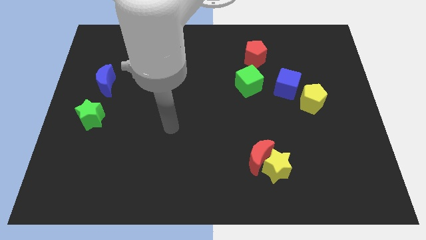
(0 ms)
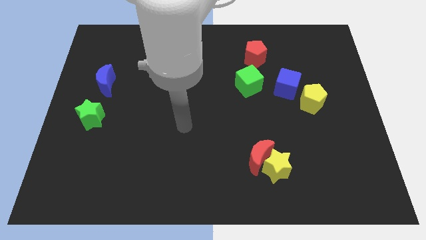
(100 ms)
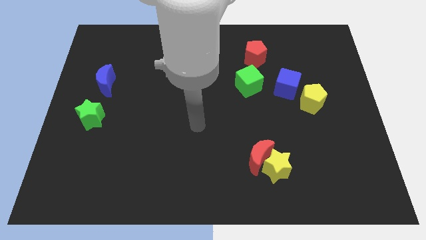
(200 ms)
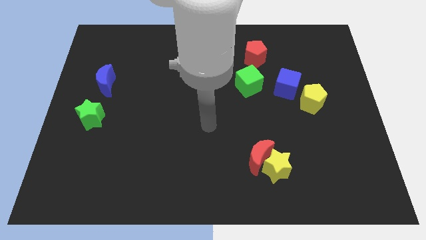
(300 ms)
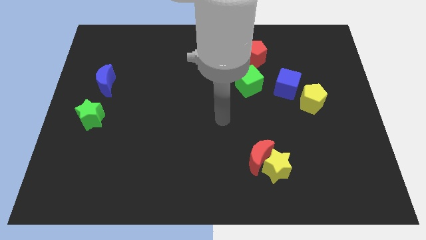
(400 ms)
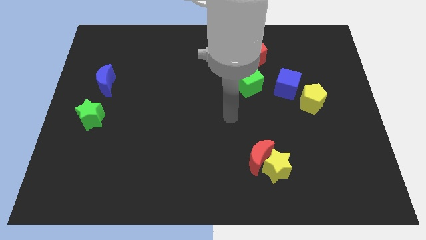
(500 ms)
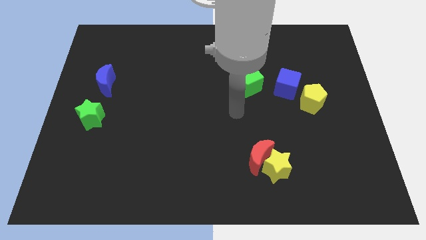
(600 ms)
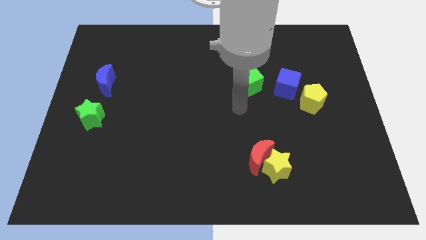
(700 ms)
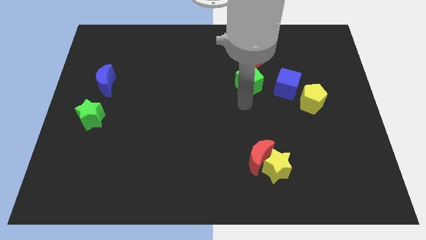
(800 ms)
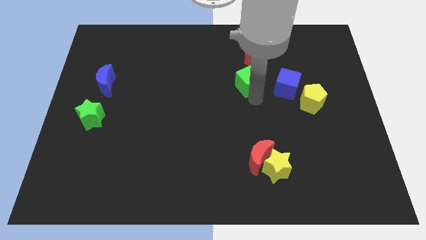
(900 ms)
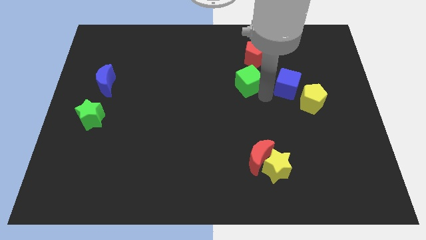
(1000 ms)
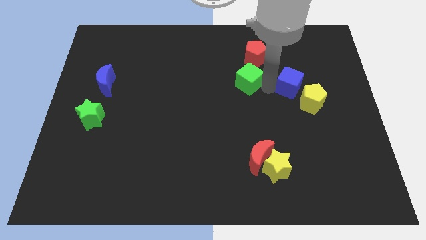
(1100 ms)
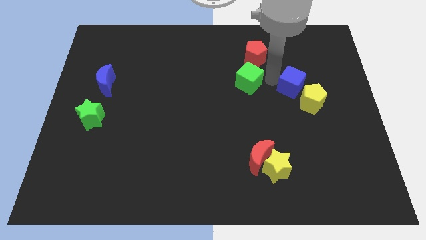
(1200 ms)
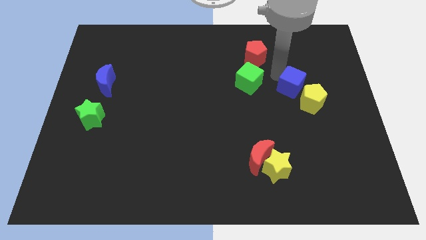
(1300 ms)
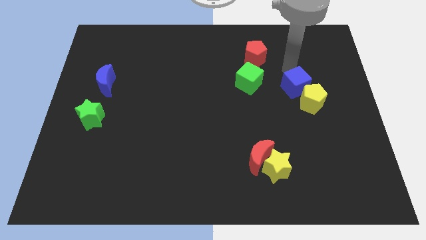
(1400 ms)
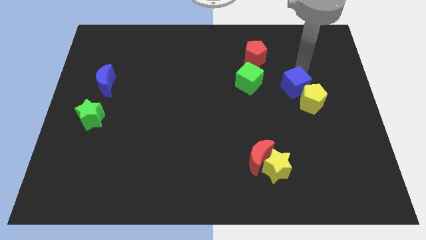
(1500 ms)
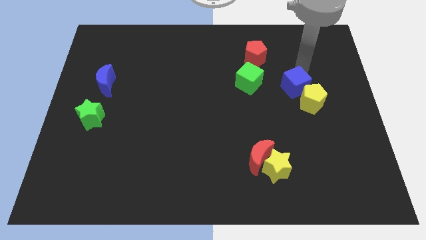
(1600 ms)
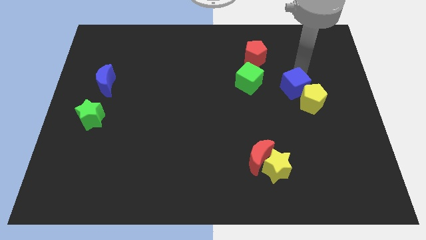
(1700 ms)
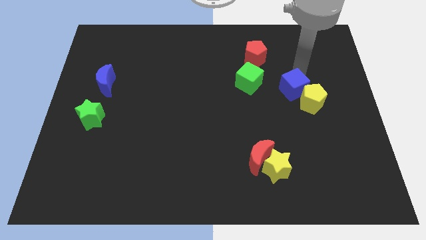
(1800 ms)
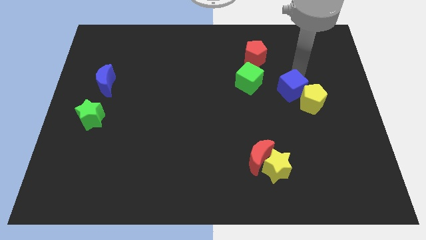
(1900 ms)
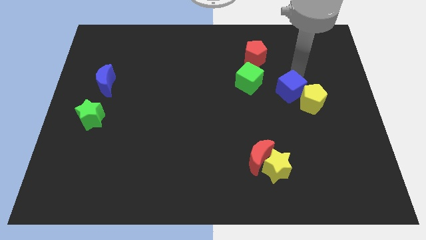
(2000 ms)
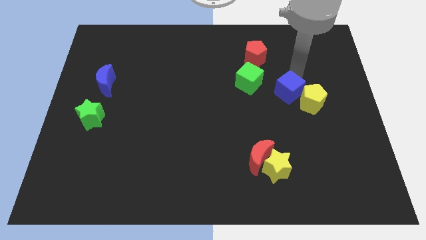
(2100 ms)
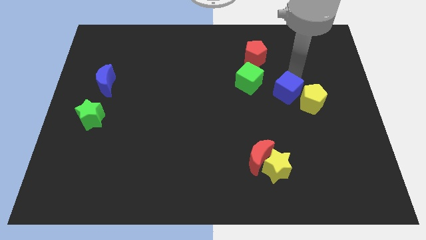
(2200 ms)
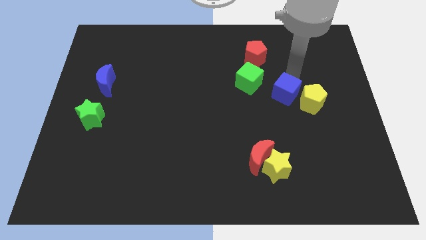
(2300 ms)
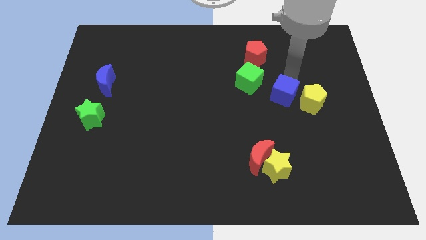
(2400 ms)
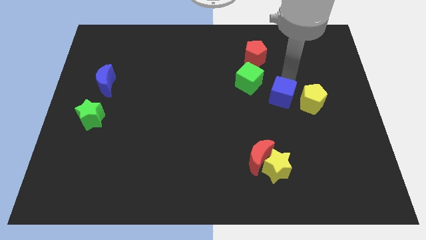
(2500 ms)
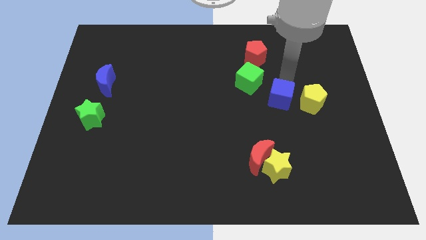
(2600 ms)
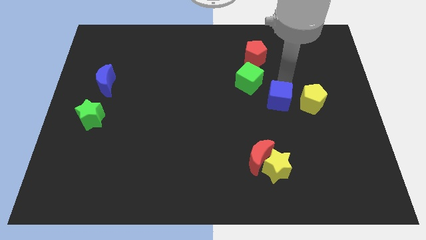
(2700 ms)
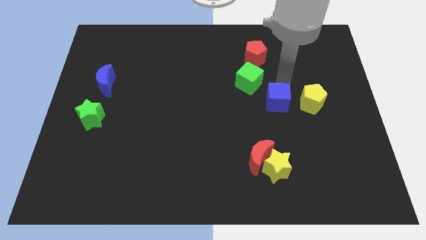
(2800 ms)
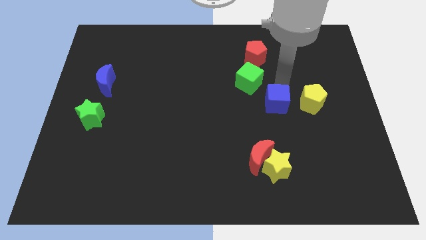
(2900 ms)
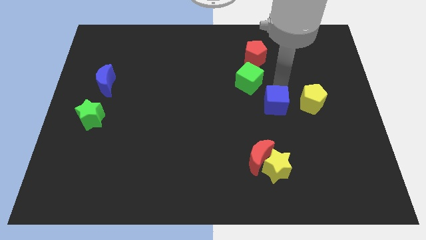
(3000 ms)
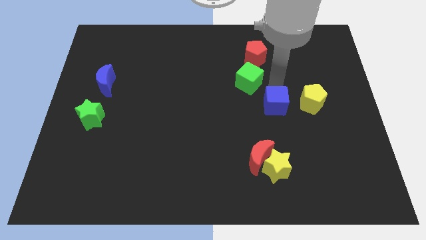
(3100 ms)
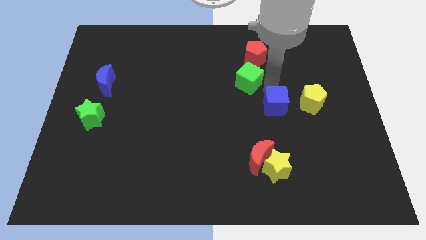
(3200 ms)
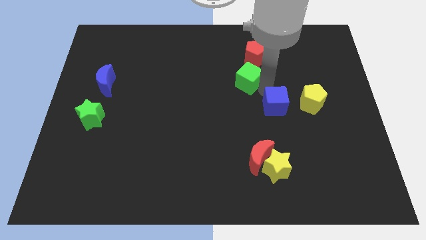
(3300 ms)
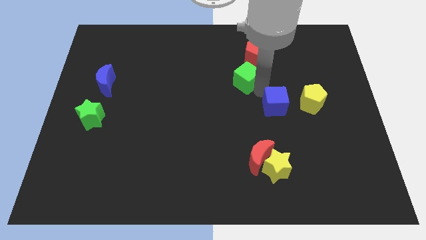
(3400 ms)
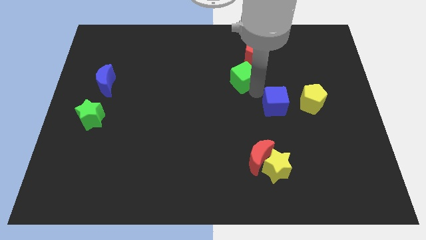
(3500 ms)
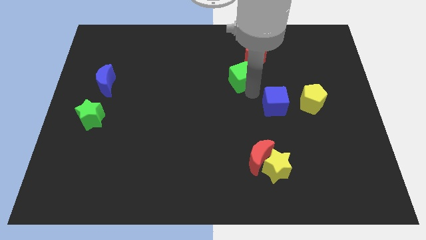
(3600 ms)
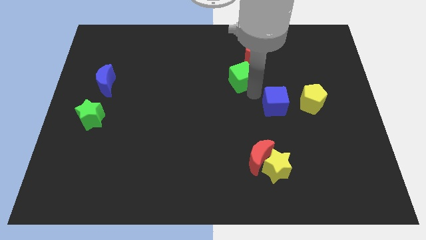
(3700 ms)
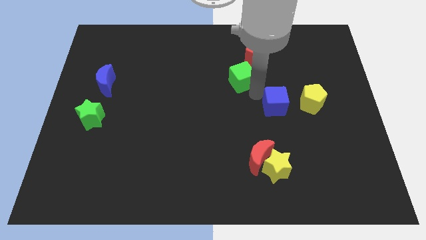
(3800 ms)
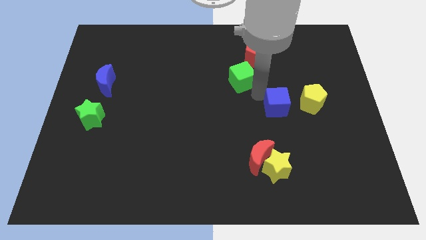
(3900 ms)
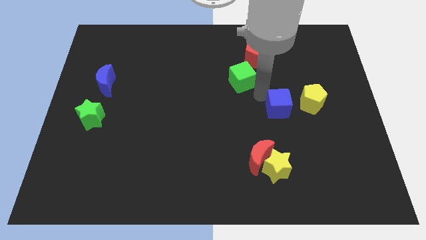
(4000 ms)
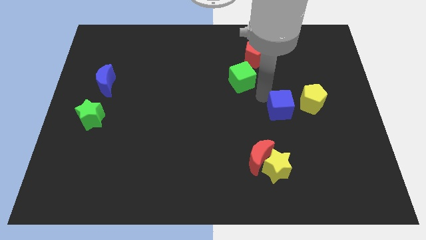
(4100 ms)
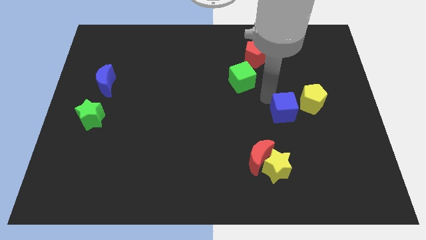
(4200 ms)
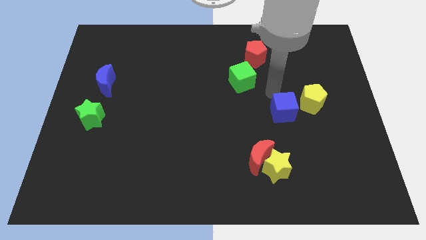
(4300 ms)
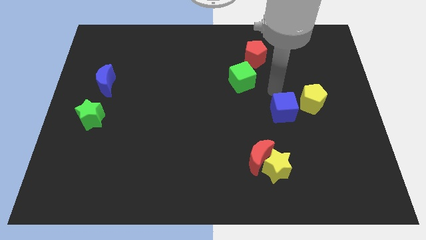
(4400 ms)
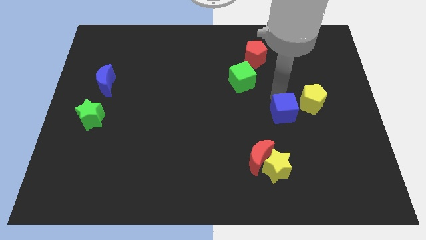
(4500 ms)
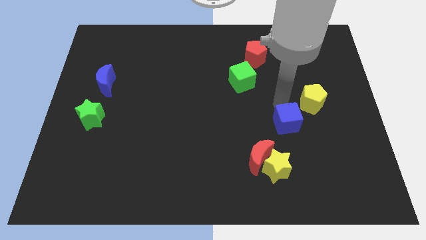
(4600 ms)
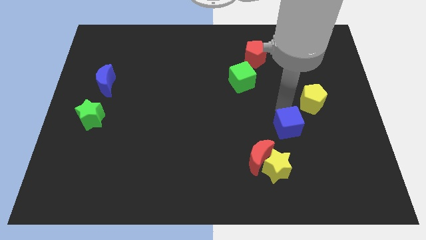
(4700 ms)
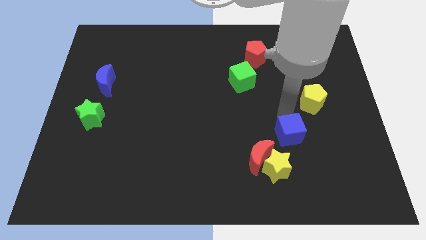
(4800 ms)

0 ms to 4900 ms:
move the blue cube to the top right of the yellow star

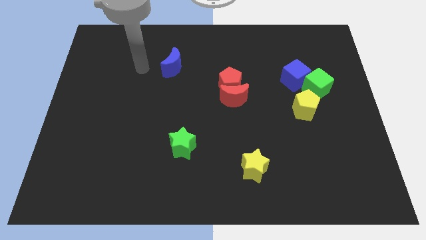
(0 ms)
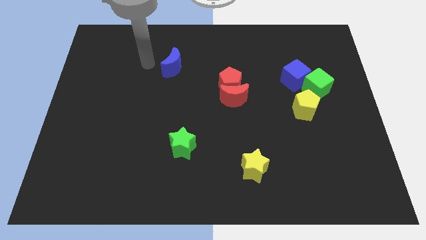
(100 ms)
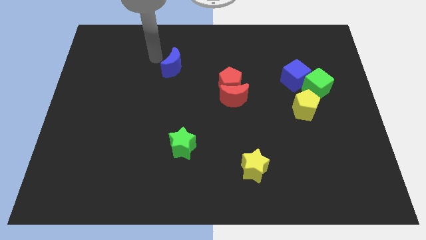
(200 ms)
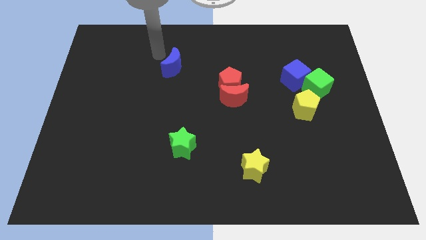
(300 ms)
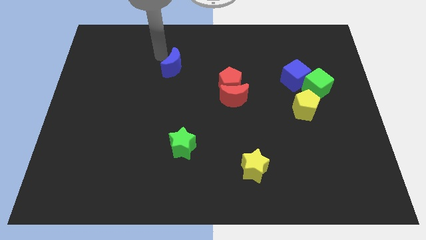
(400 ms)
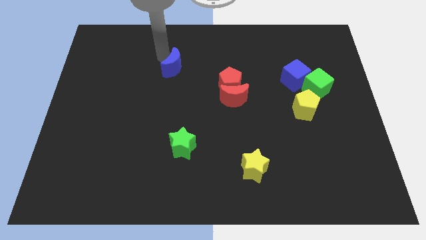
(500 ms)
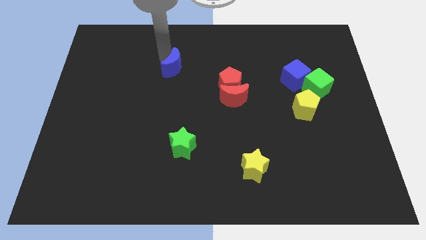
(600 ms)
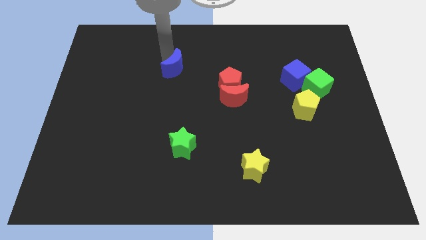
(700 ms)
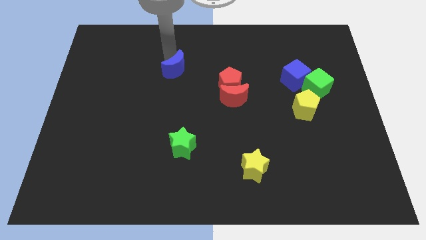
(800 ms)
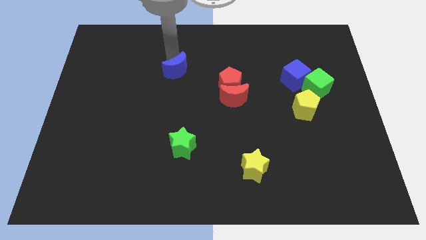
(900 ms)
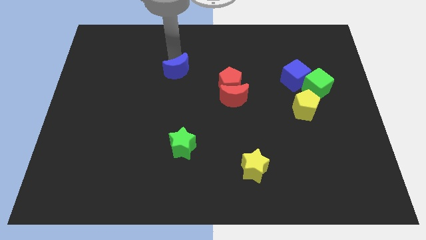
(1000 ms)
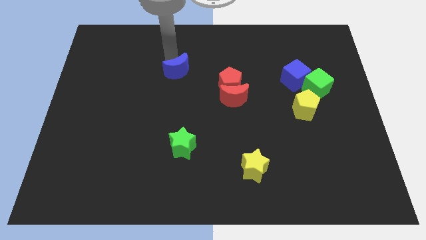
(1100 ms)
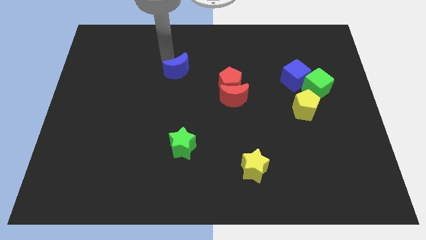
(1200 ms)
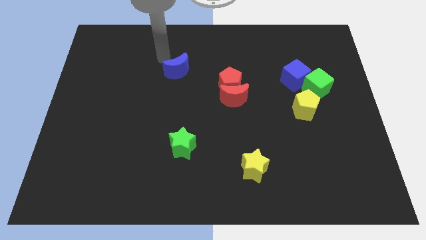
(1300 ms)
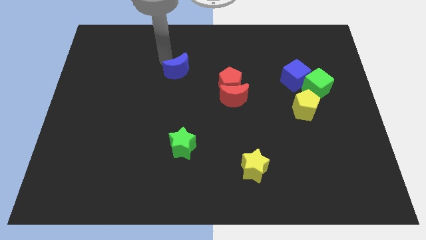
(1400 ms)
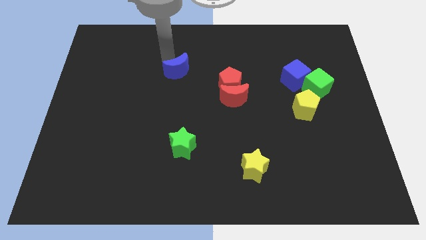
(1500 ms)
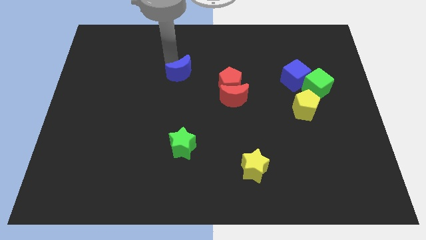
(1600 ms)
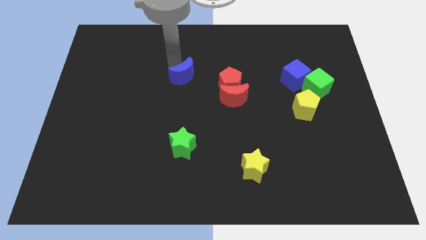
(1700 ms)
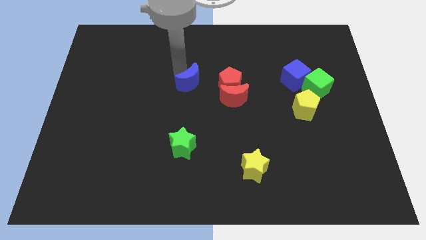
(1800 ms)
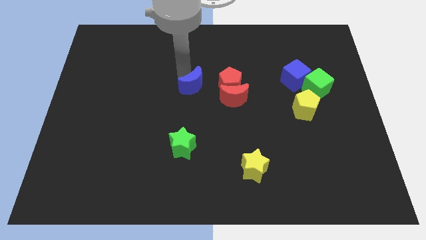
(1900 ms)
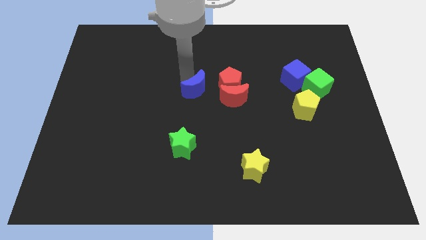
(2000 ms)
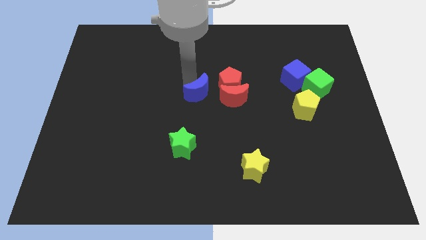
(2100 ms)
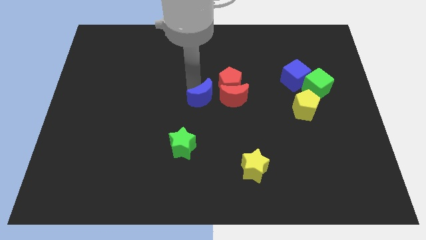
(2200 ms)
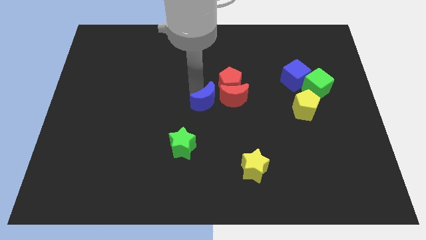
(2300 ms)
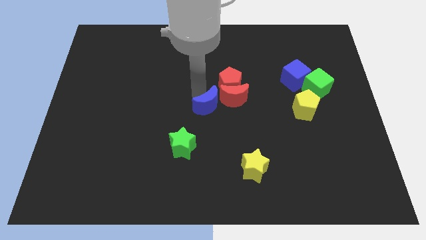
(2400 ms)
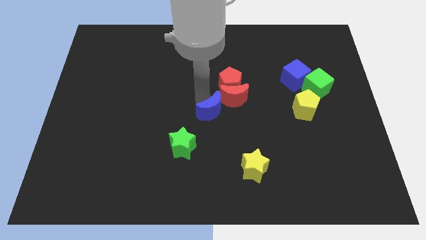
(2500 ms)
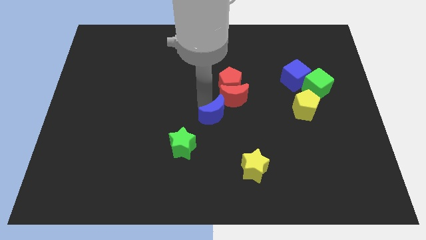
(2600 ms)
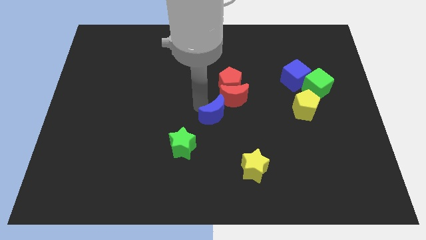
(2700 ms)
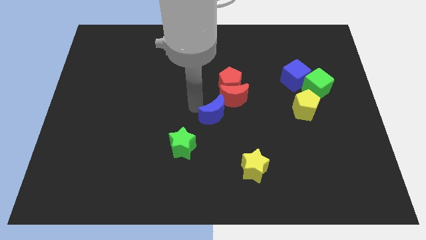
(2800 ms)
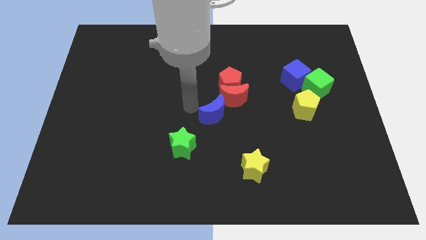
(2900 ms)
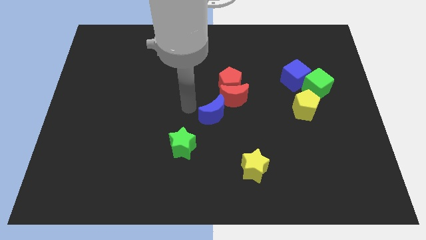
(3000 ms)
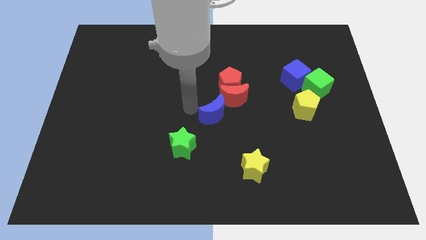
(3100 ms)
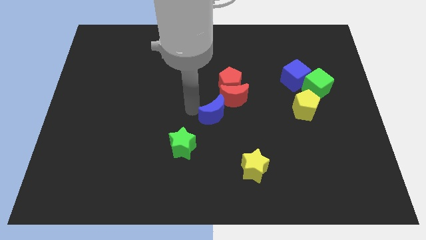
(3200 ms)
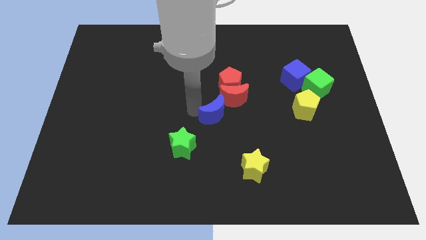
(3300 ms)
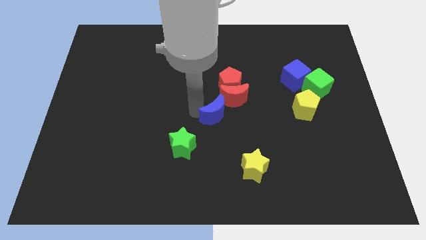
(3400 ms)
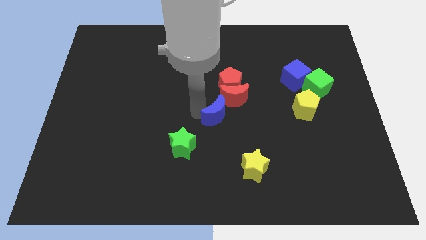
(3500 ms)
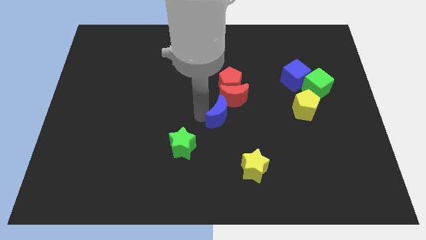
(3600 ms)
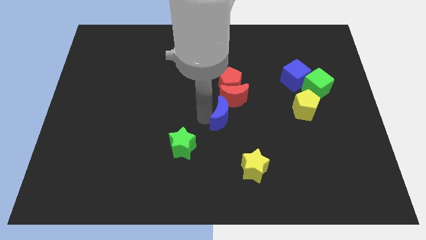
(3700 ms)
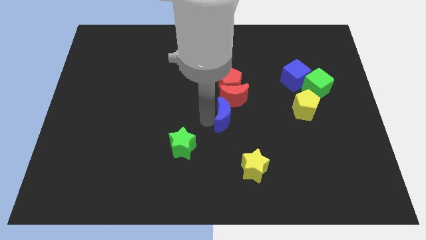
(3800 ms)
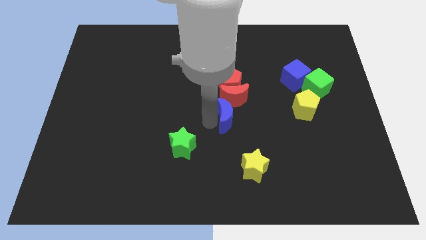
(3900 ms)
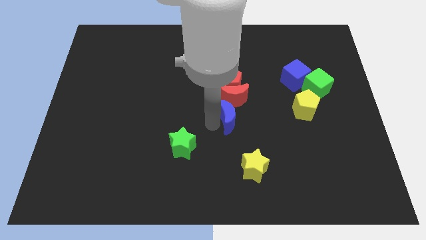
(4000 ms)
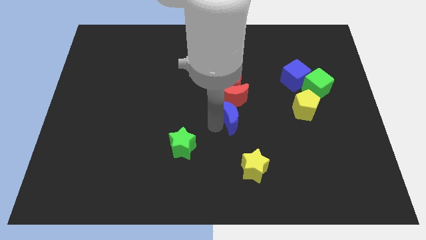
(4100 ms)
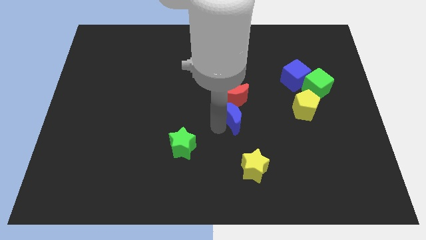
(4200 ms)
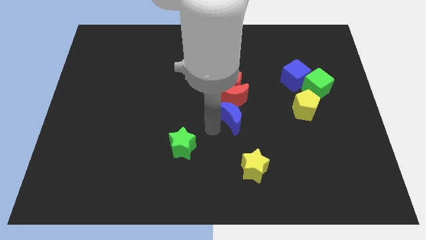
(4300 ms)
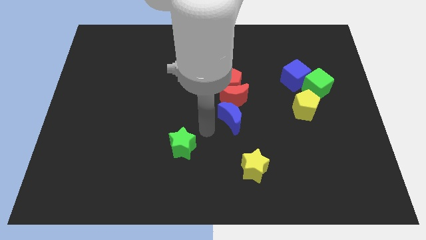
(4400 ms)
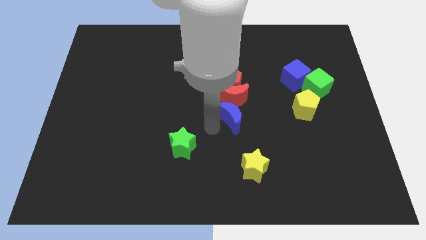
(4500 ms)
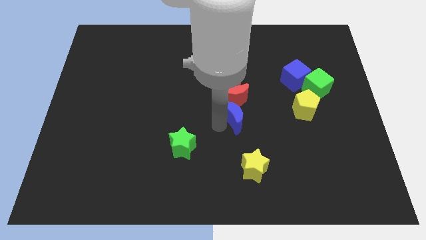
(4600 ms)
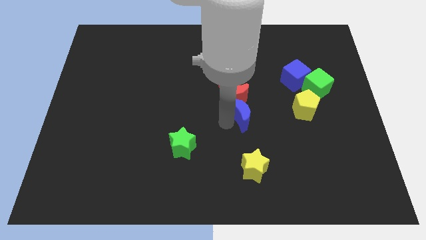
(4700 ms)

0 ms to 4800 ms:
put the blue moon to the left of the yellow pentagon
